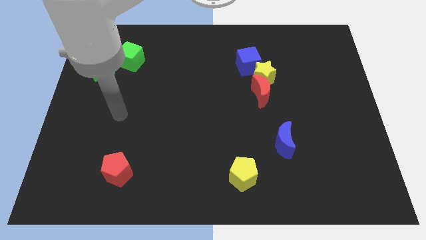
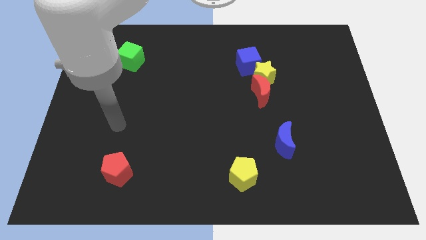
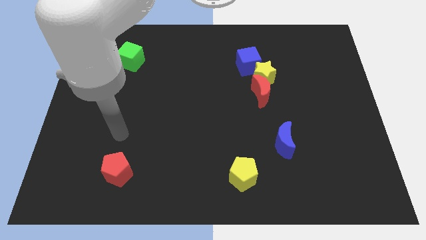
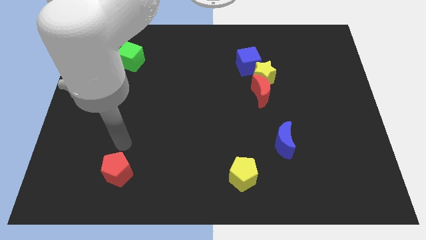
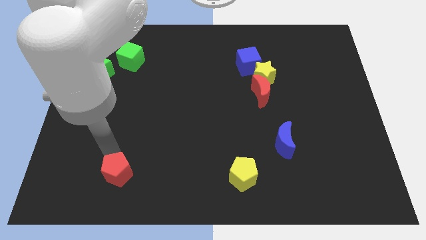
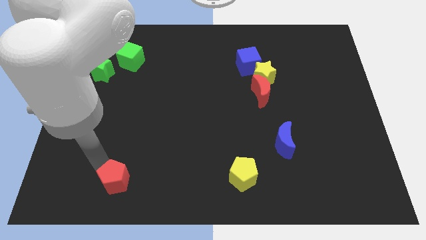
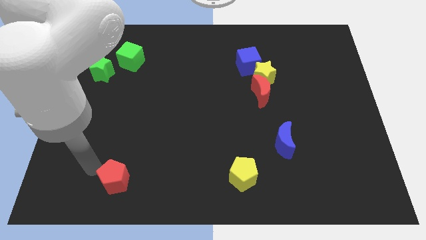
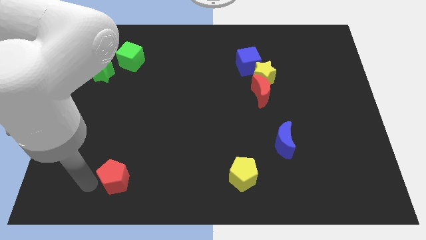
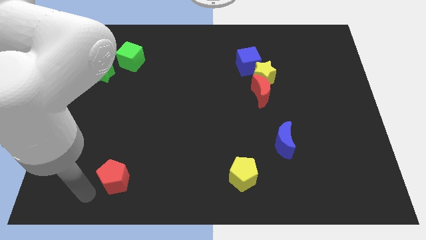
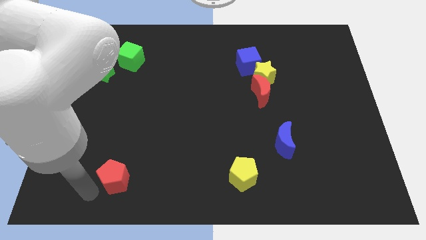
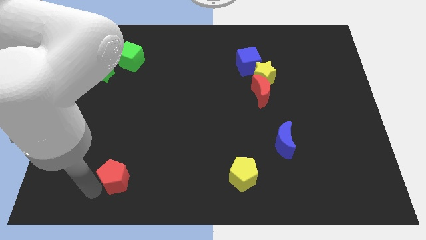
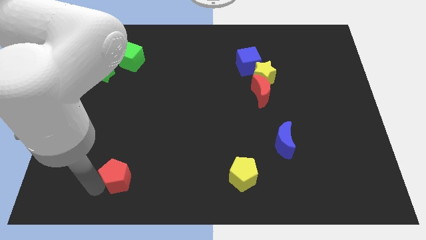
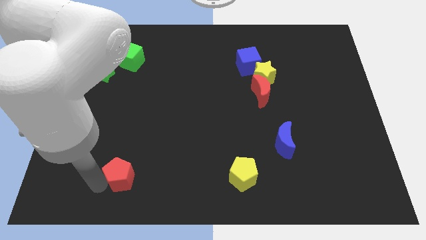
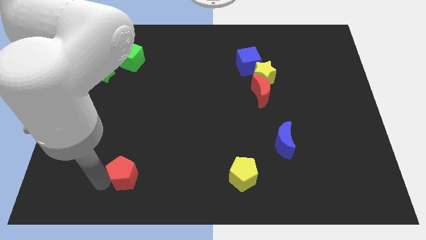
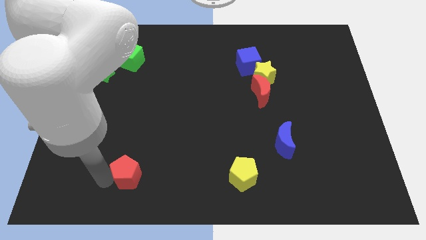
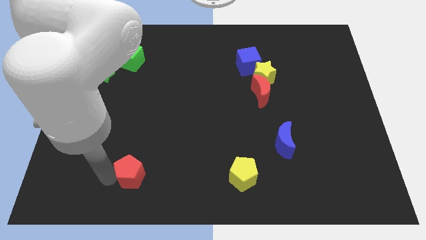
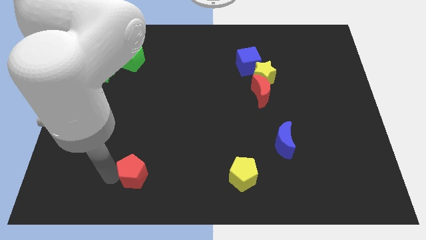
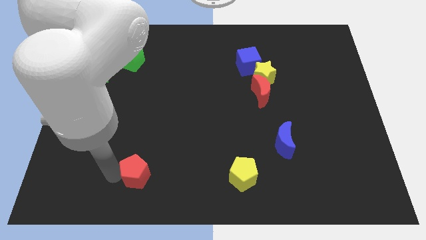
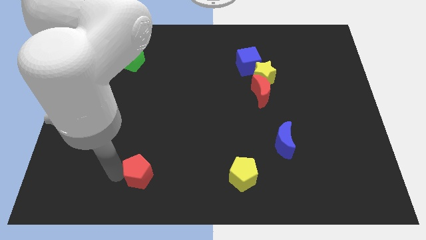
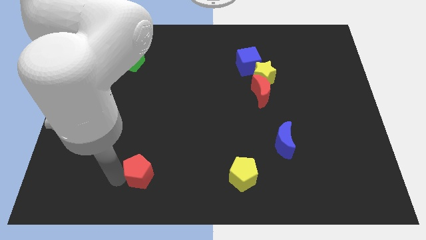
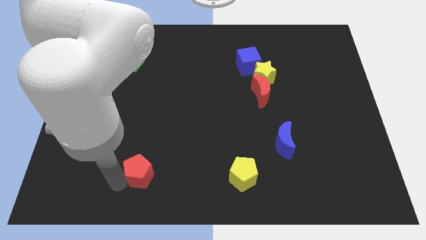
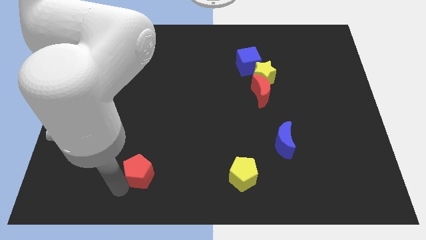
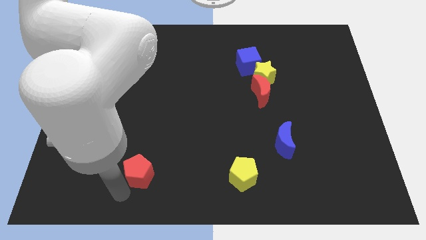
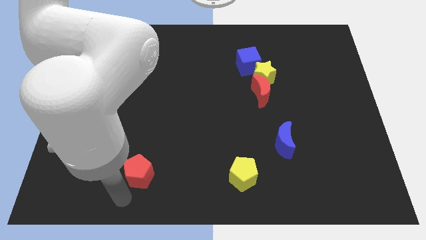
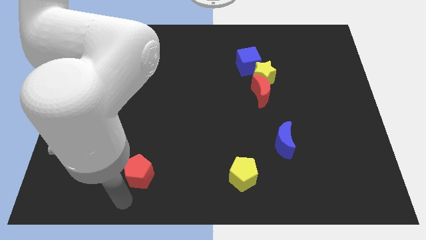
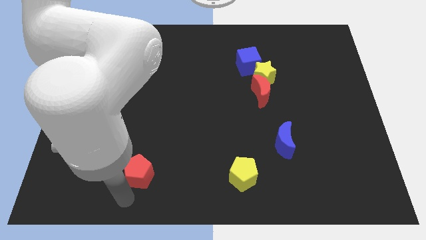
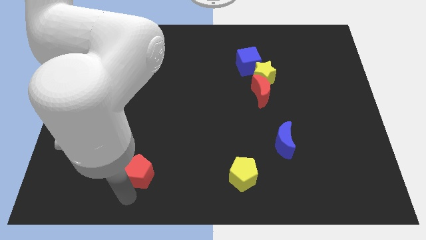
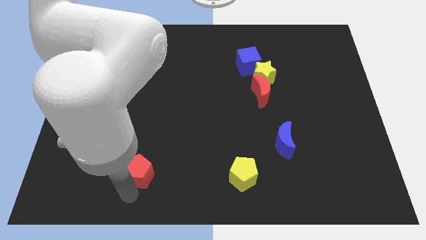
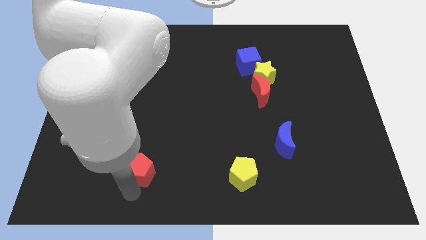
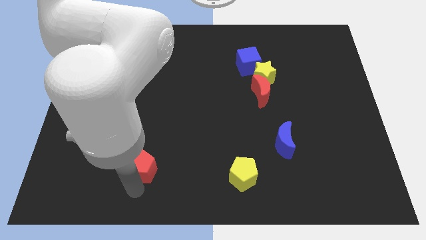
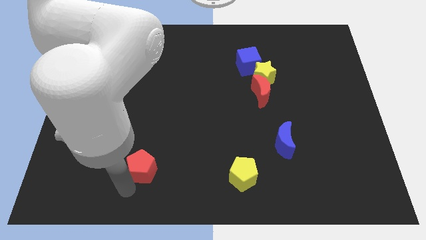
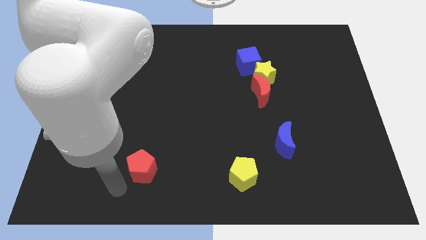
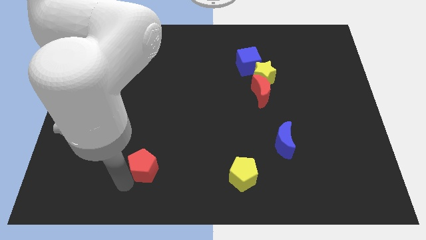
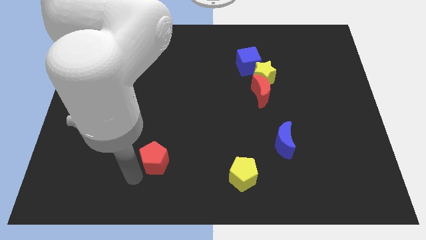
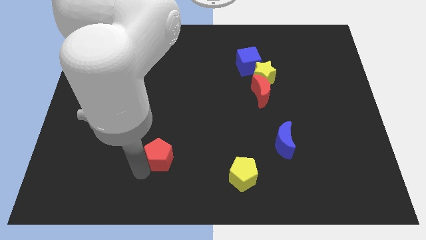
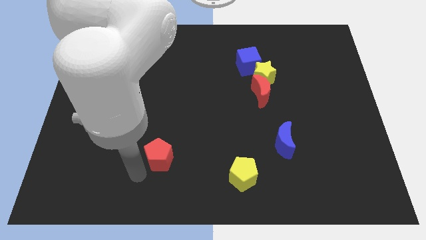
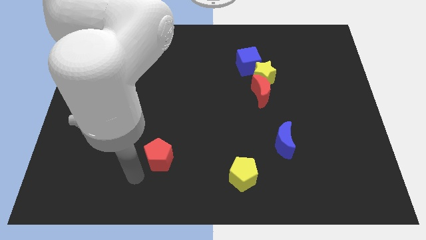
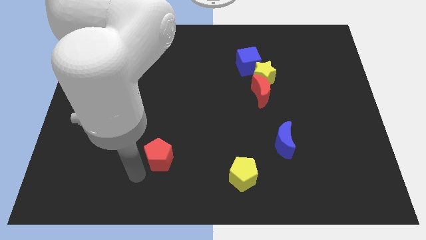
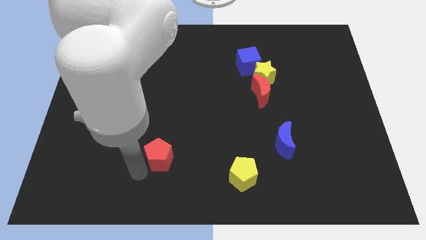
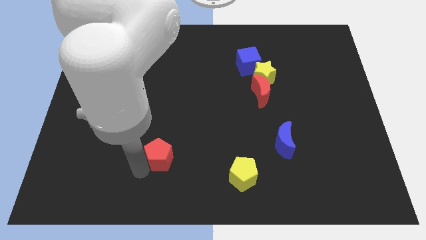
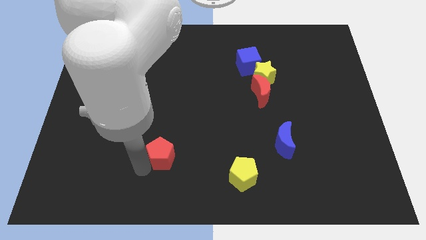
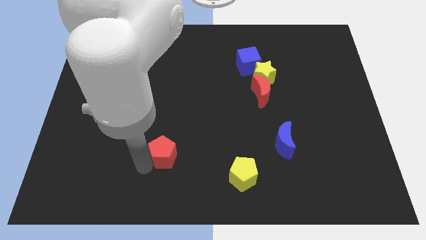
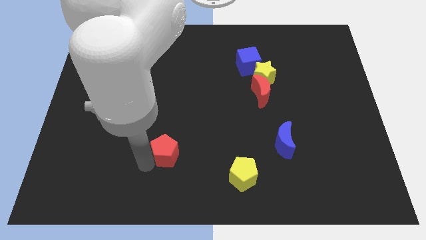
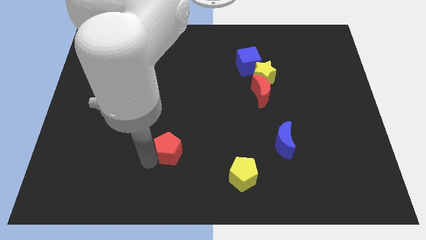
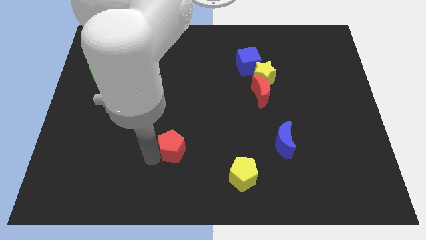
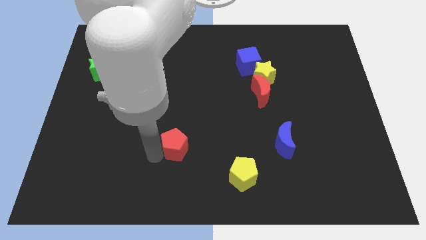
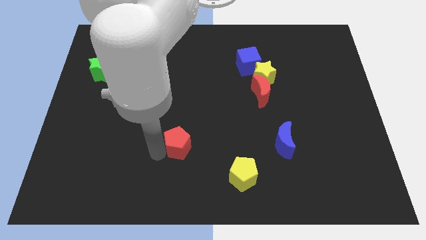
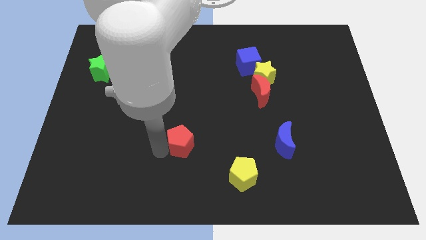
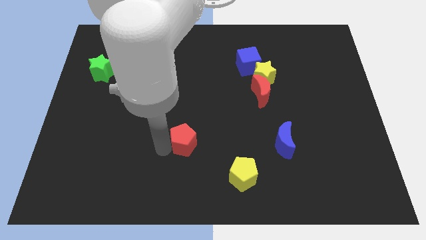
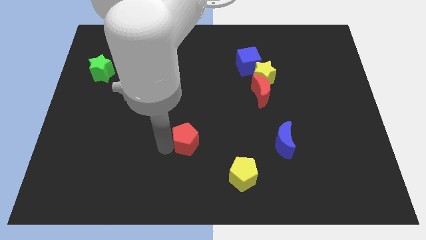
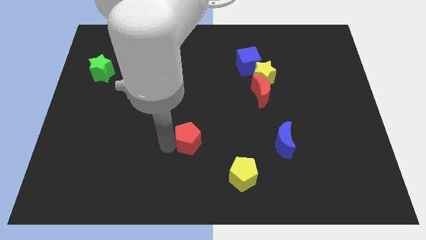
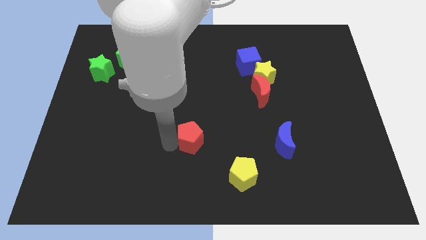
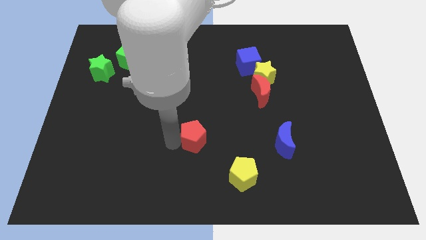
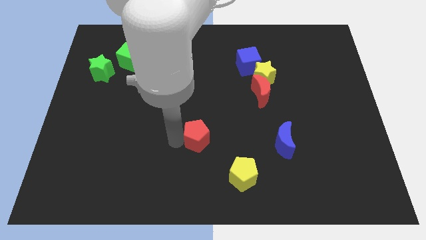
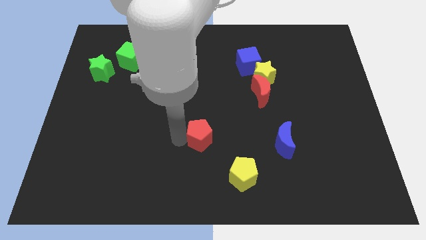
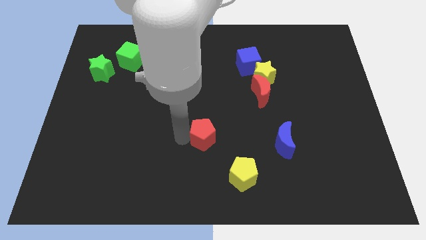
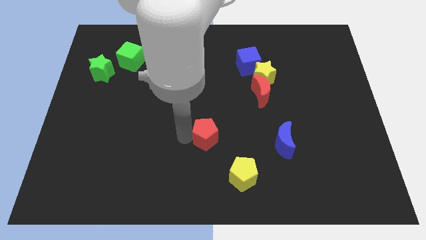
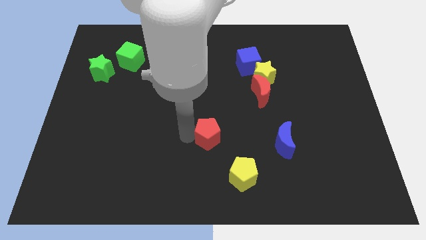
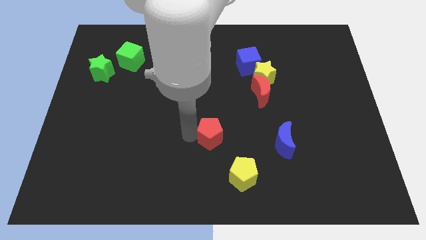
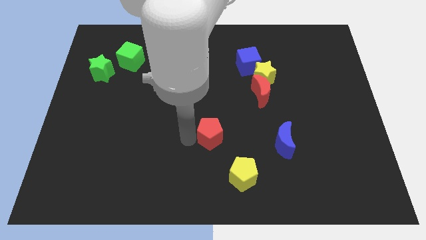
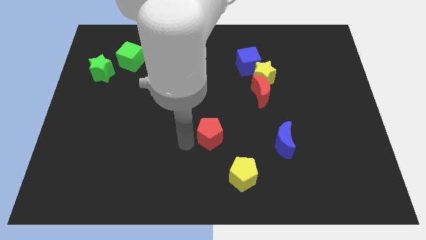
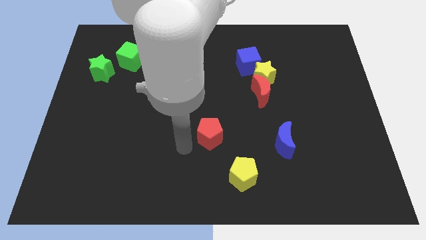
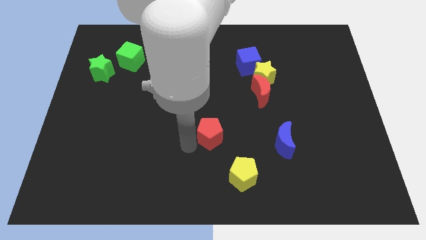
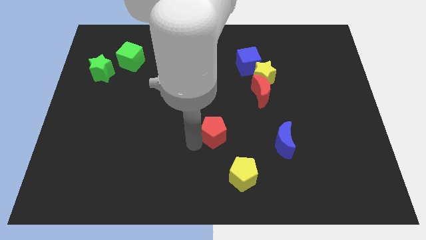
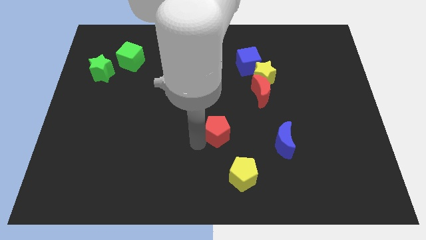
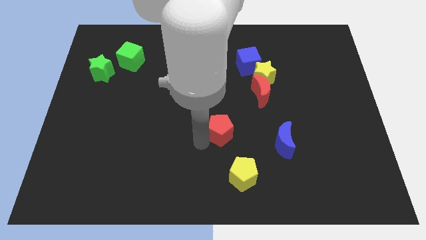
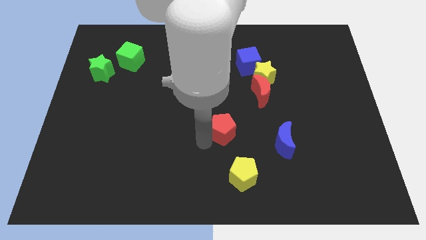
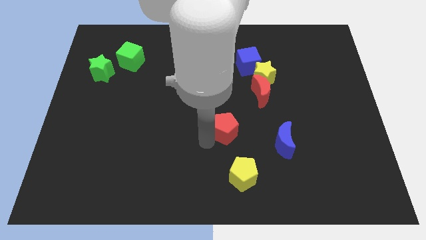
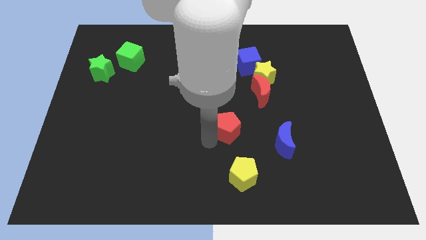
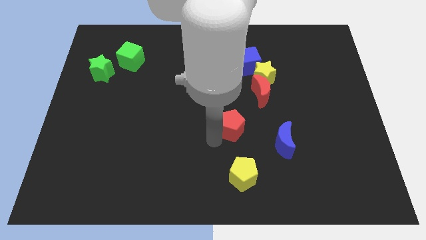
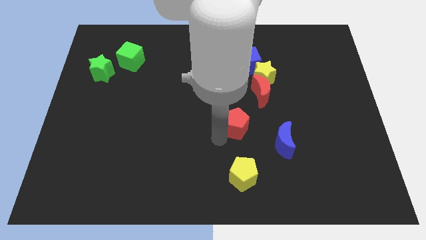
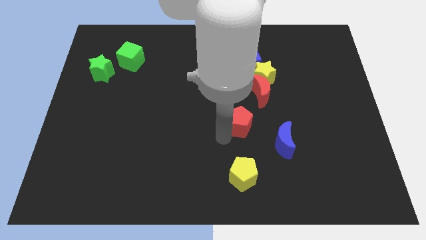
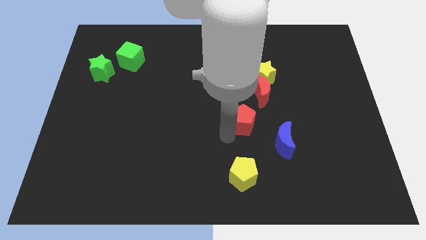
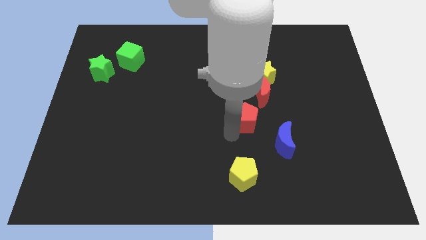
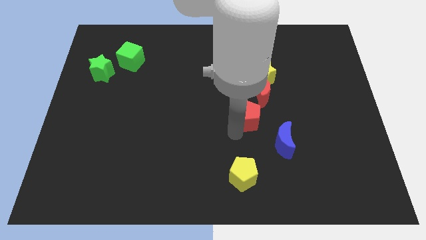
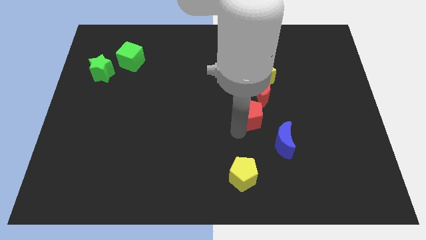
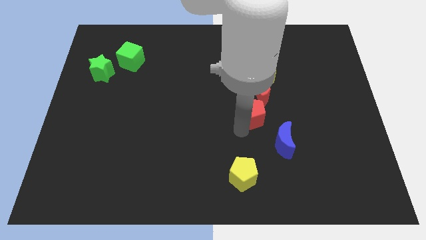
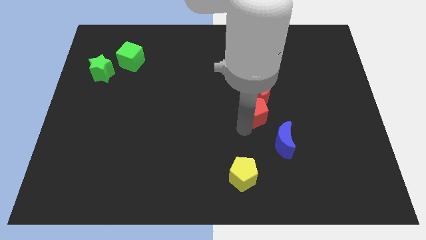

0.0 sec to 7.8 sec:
put the red pentagon to the bottom side of the blue cube
